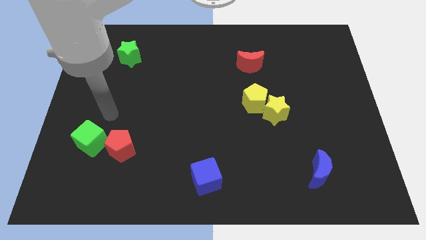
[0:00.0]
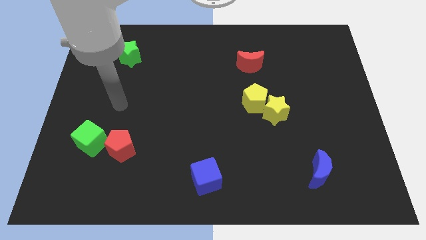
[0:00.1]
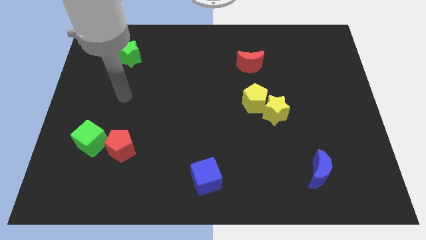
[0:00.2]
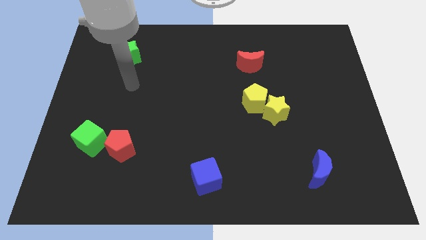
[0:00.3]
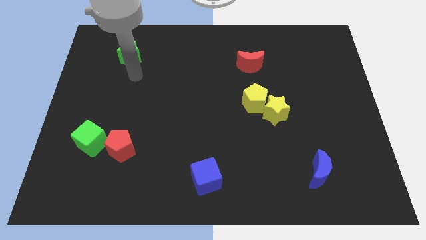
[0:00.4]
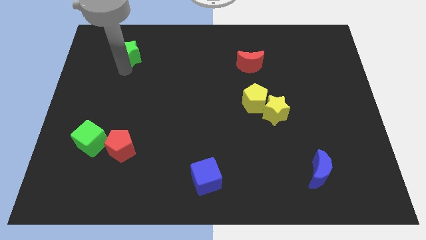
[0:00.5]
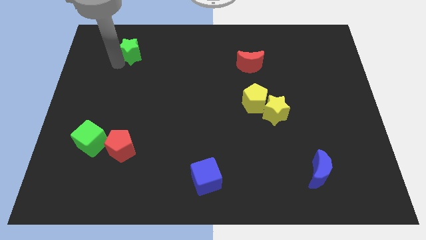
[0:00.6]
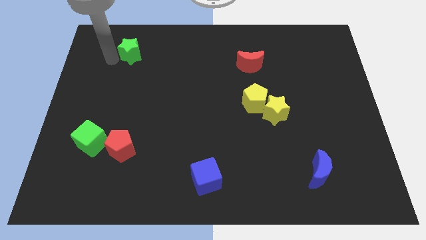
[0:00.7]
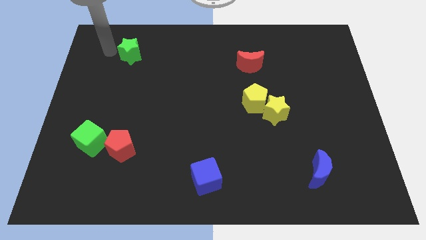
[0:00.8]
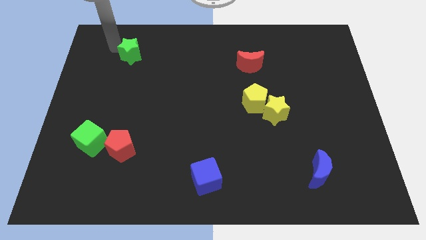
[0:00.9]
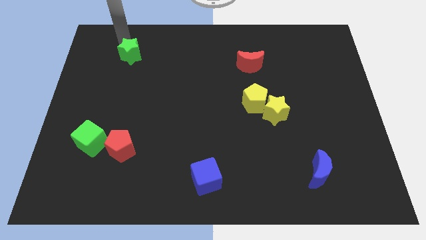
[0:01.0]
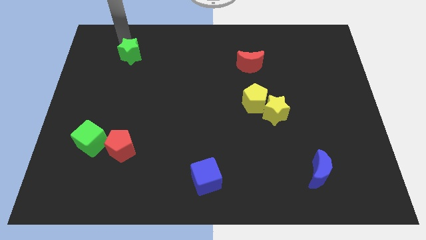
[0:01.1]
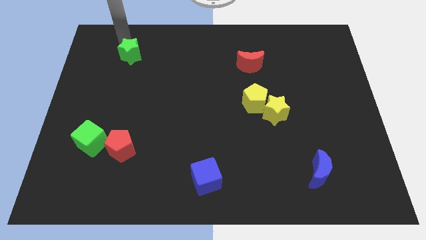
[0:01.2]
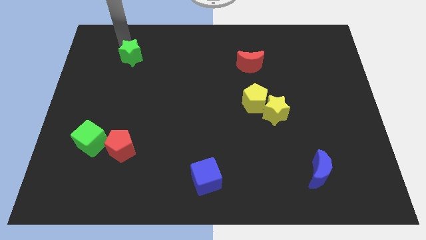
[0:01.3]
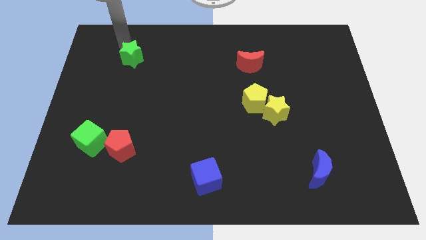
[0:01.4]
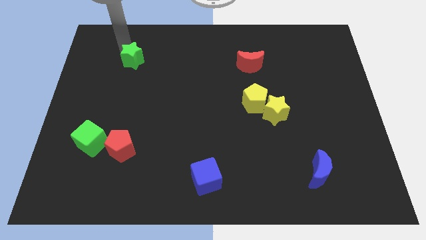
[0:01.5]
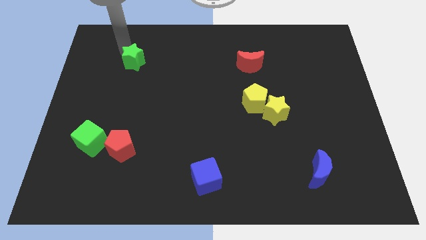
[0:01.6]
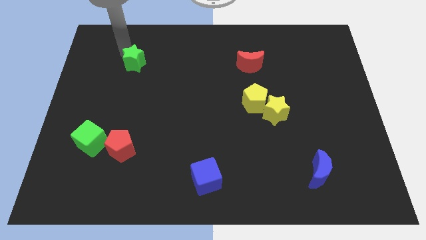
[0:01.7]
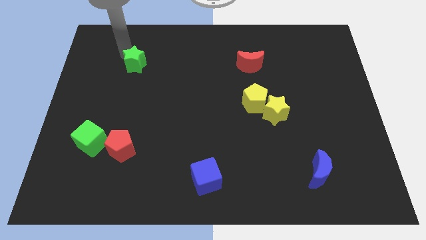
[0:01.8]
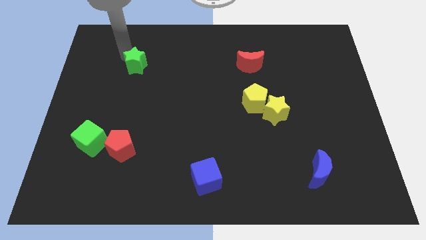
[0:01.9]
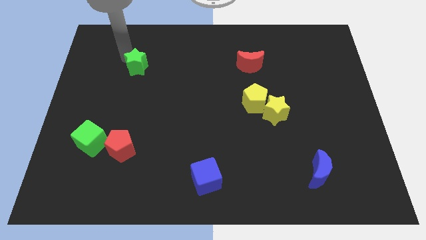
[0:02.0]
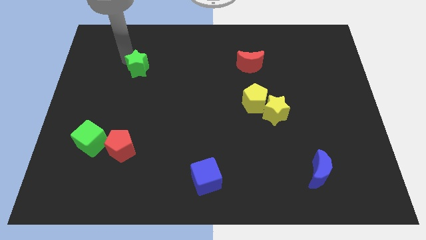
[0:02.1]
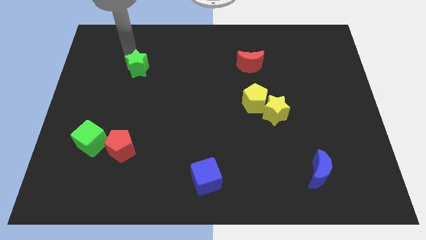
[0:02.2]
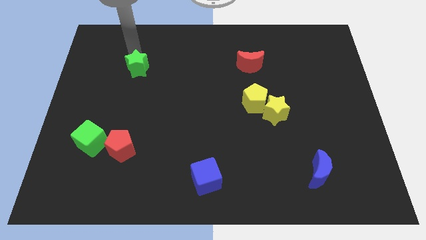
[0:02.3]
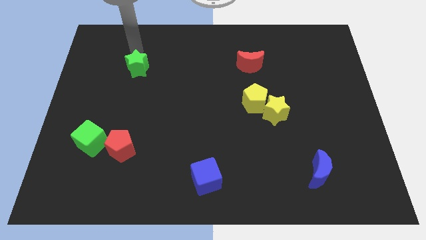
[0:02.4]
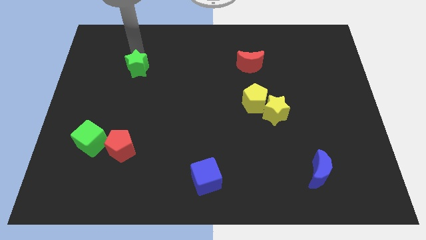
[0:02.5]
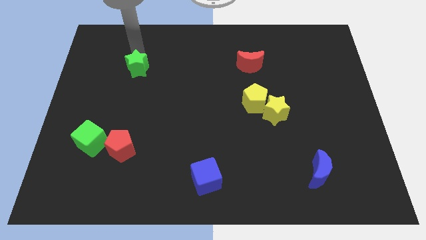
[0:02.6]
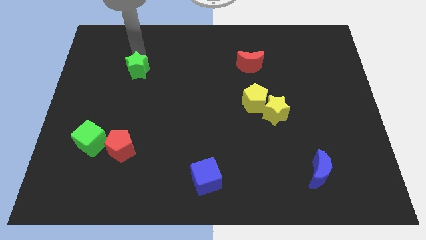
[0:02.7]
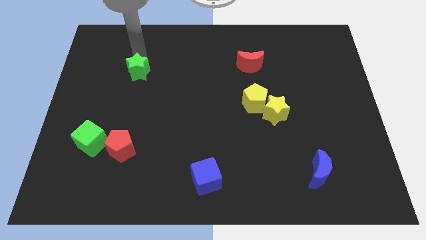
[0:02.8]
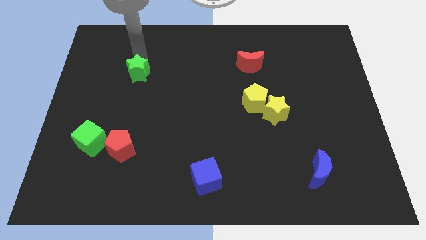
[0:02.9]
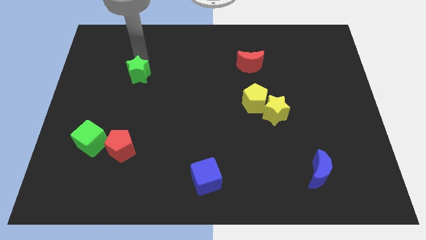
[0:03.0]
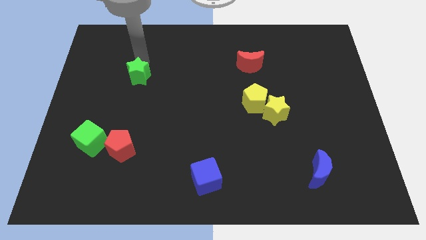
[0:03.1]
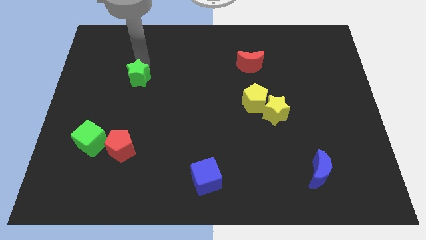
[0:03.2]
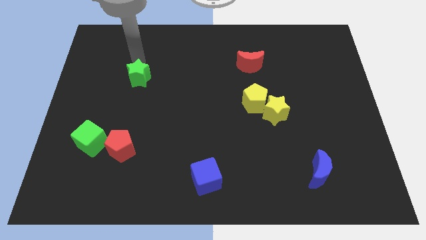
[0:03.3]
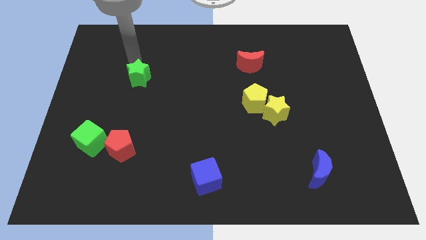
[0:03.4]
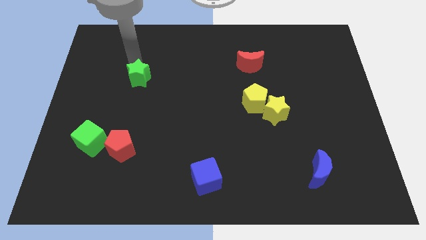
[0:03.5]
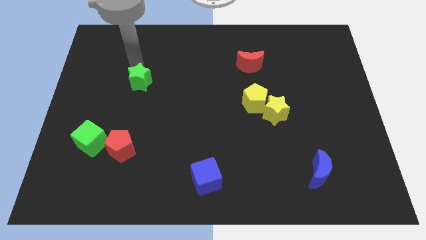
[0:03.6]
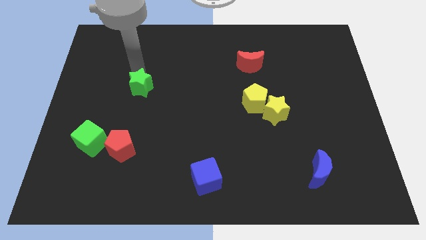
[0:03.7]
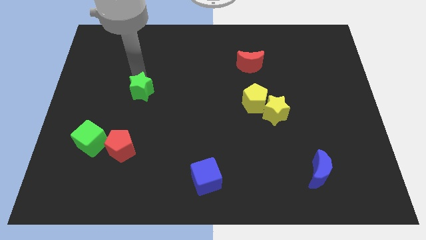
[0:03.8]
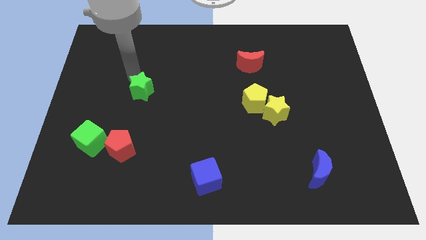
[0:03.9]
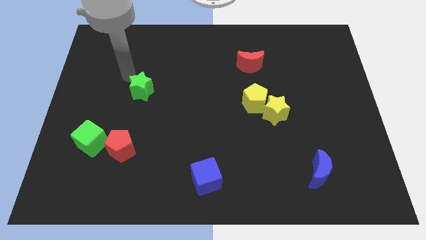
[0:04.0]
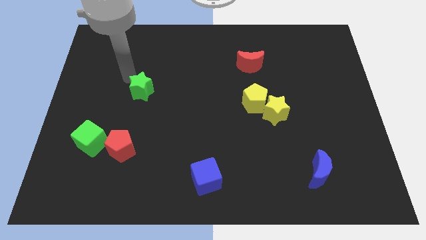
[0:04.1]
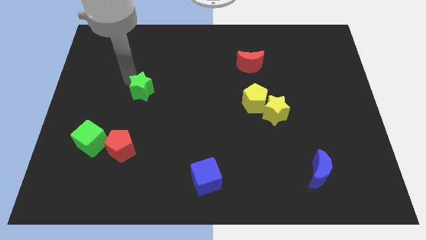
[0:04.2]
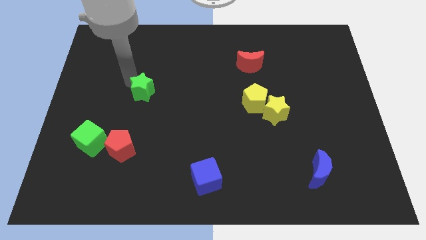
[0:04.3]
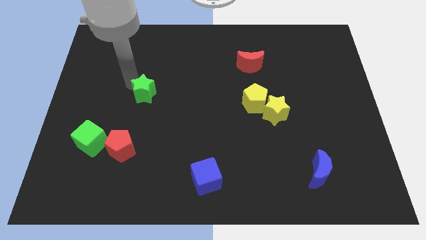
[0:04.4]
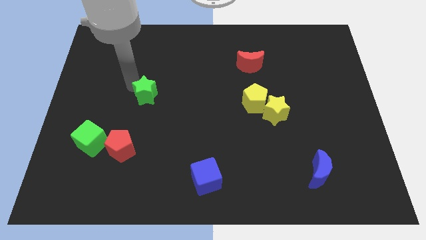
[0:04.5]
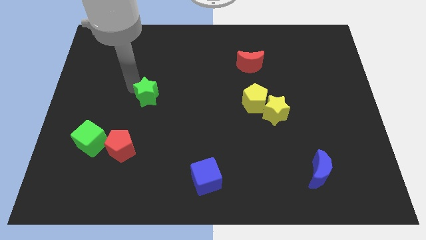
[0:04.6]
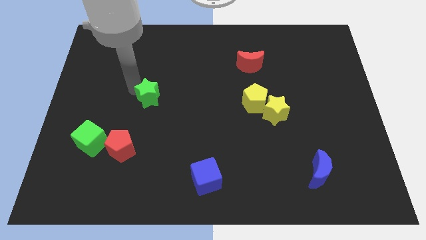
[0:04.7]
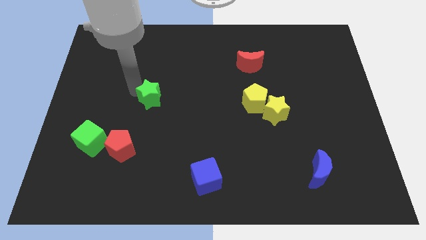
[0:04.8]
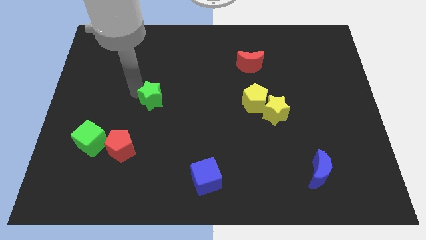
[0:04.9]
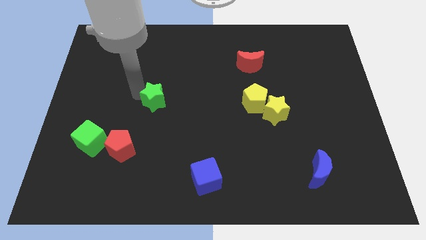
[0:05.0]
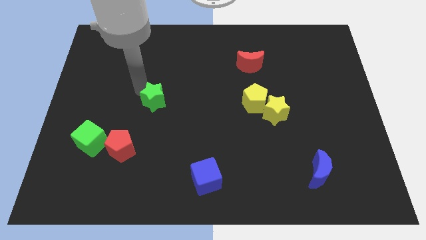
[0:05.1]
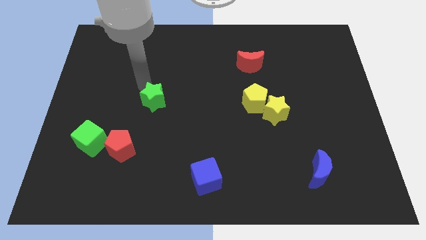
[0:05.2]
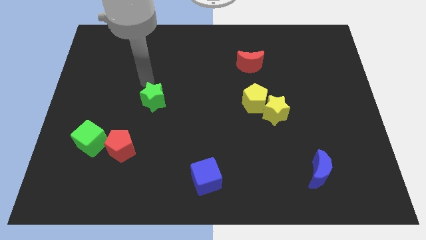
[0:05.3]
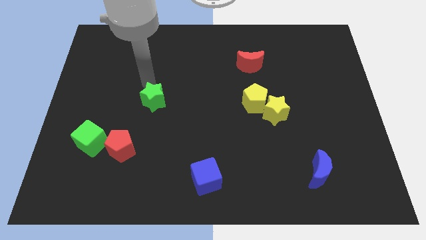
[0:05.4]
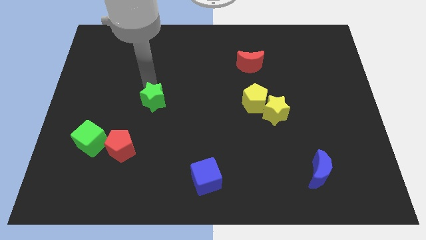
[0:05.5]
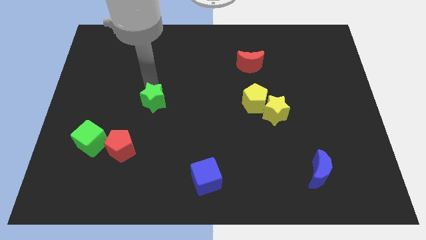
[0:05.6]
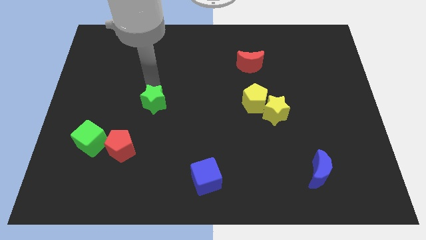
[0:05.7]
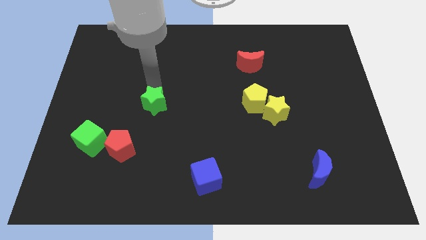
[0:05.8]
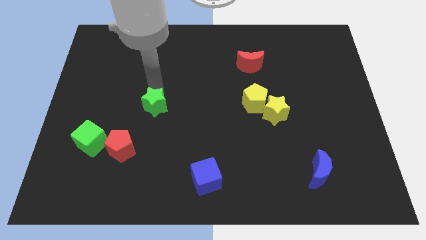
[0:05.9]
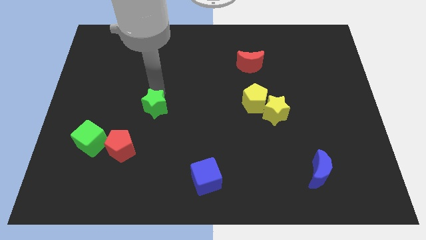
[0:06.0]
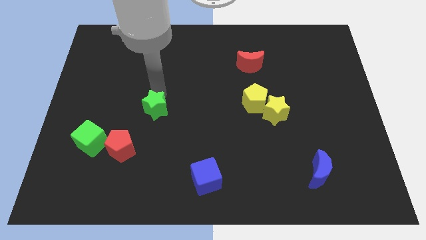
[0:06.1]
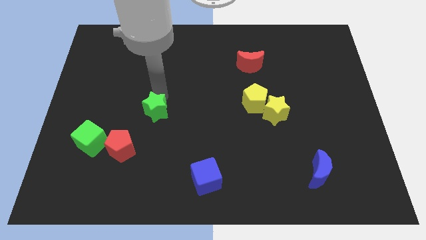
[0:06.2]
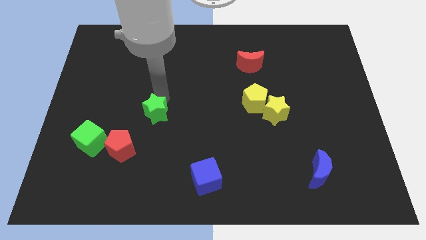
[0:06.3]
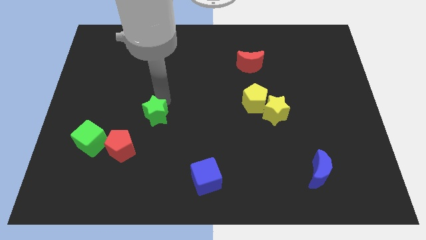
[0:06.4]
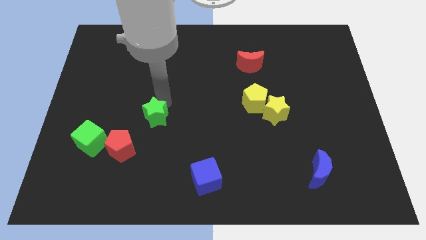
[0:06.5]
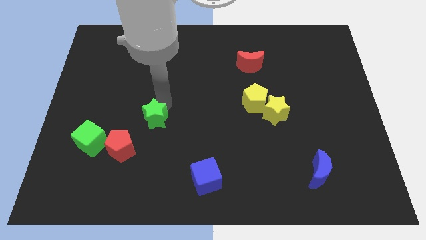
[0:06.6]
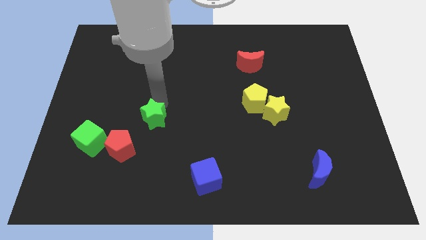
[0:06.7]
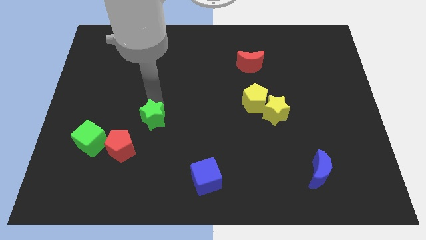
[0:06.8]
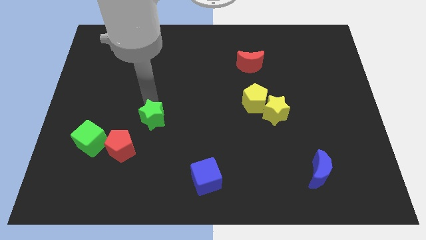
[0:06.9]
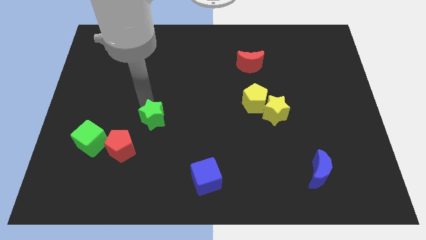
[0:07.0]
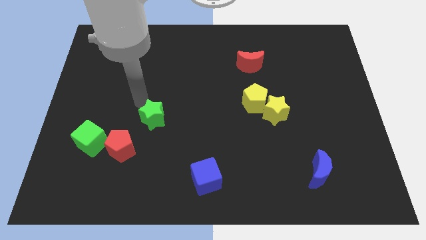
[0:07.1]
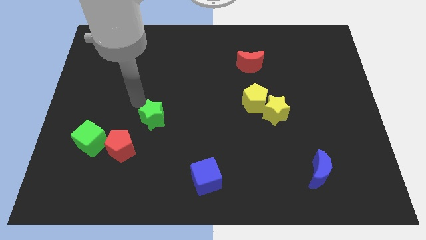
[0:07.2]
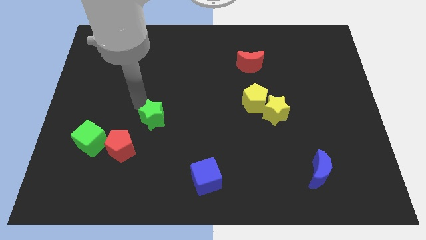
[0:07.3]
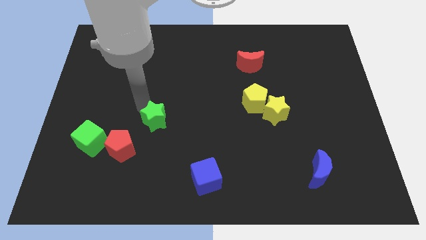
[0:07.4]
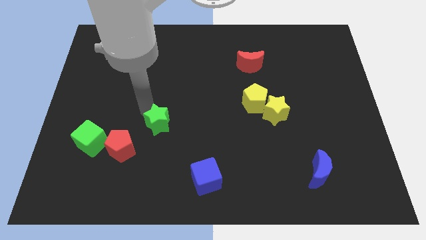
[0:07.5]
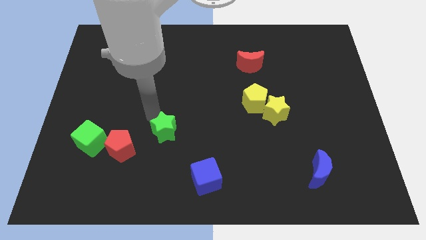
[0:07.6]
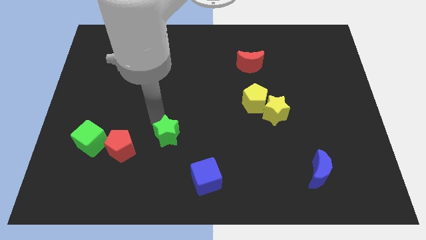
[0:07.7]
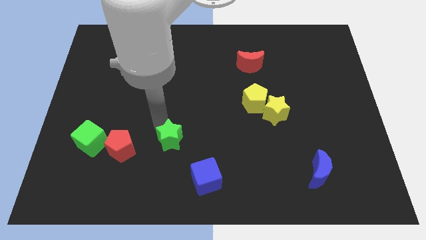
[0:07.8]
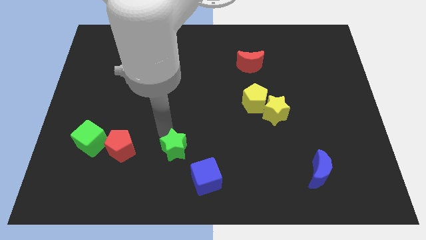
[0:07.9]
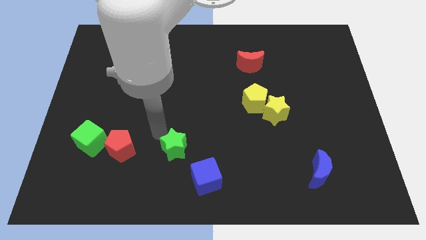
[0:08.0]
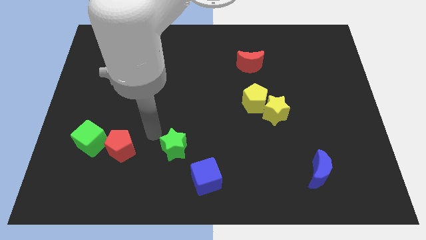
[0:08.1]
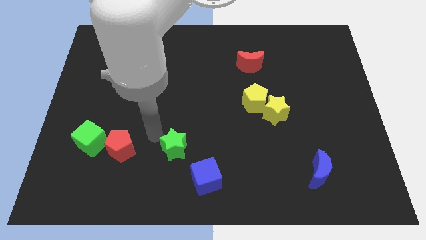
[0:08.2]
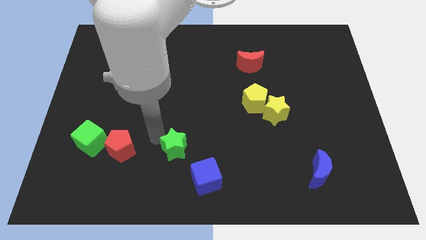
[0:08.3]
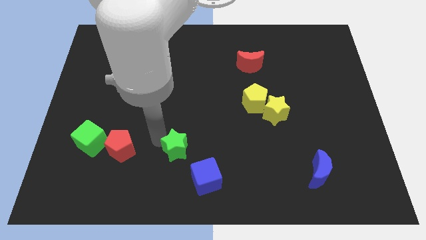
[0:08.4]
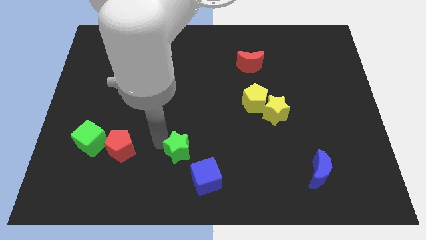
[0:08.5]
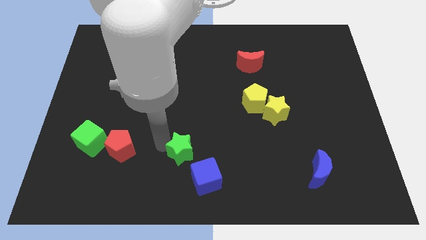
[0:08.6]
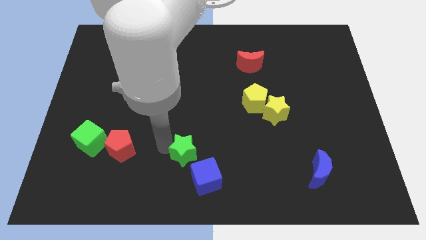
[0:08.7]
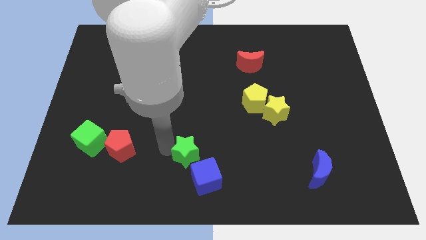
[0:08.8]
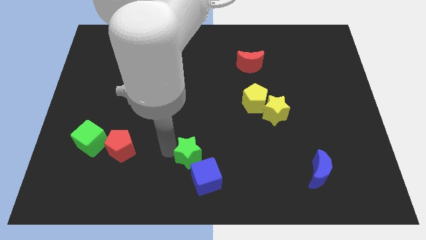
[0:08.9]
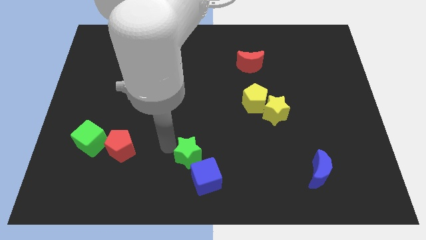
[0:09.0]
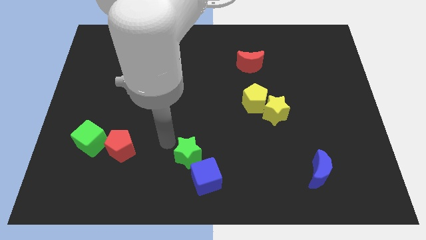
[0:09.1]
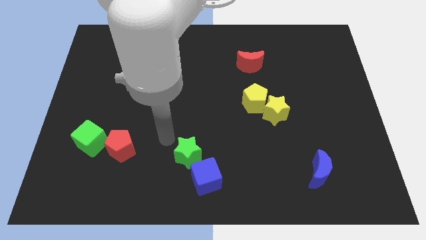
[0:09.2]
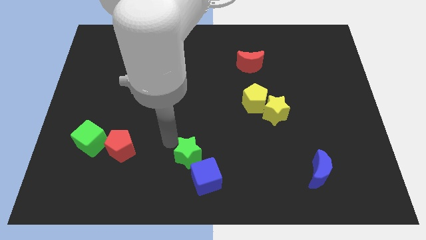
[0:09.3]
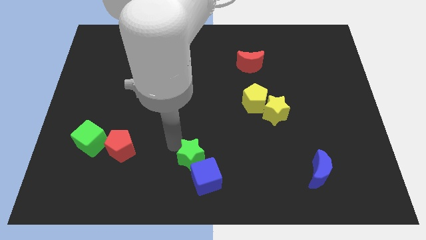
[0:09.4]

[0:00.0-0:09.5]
move the green star next to the blue cube
